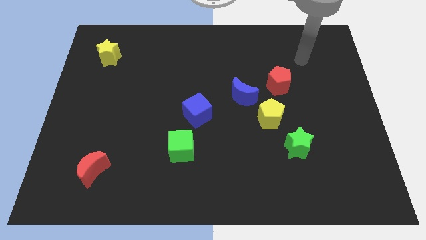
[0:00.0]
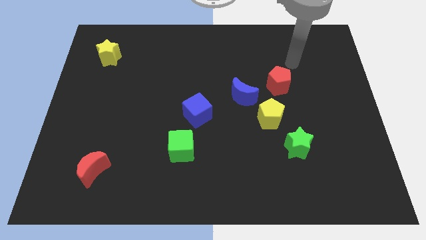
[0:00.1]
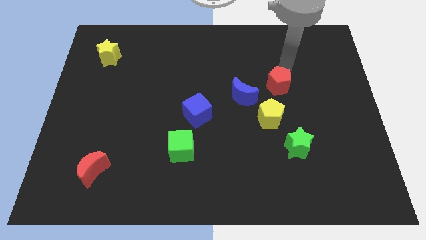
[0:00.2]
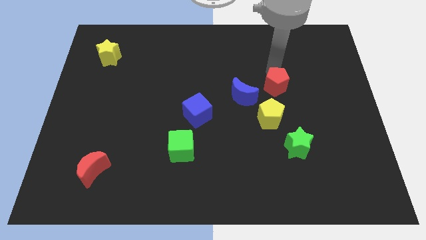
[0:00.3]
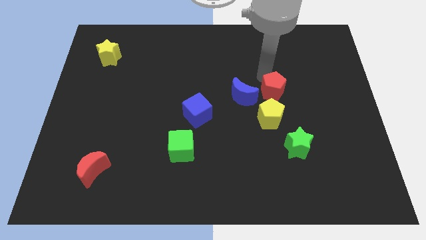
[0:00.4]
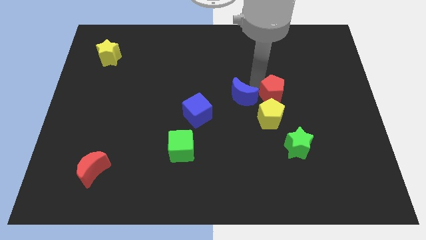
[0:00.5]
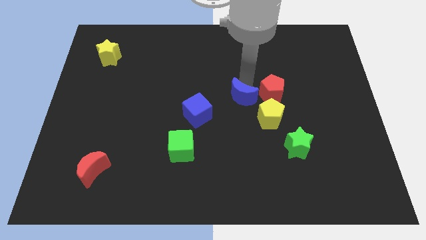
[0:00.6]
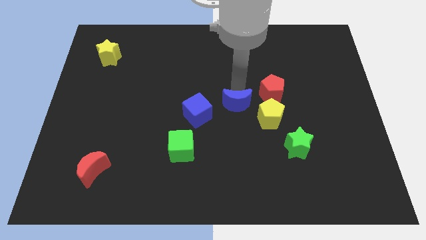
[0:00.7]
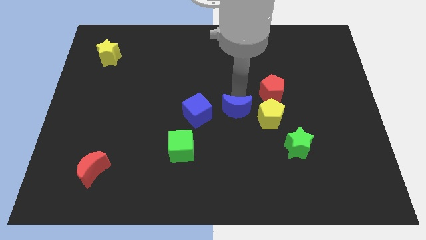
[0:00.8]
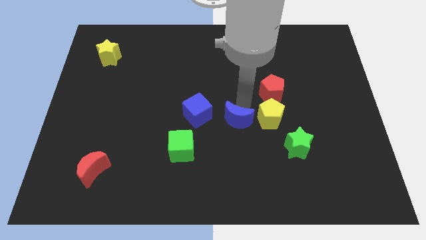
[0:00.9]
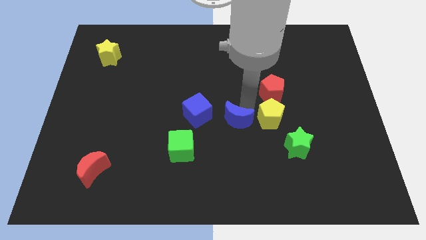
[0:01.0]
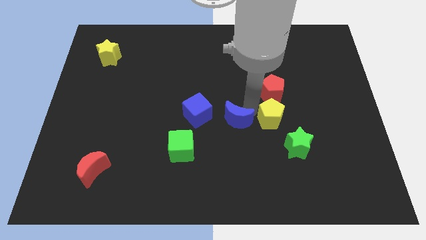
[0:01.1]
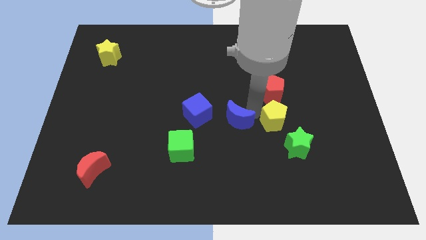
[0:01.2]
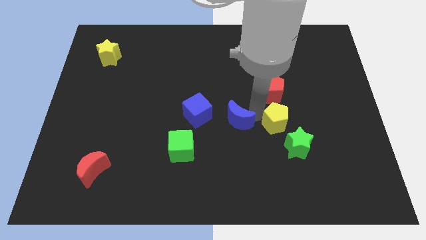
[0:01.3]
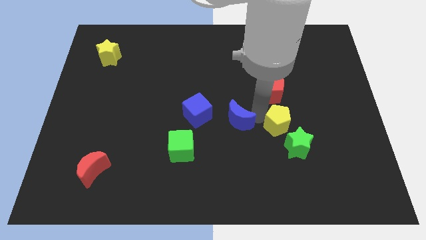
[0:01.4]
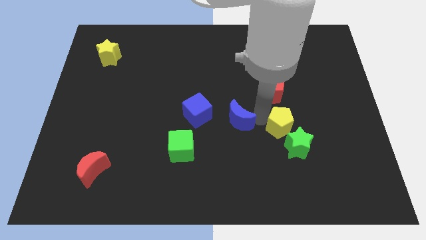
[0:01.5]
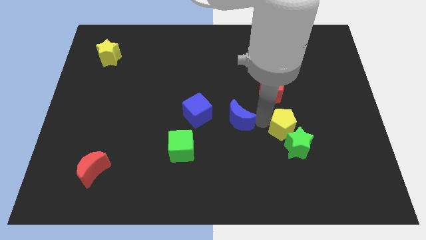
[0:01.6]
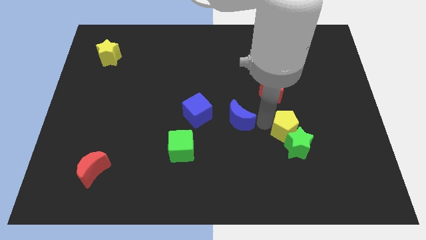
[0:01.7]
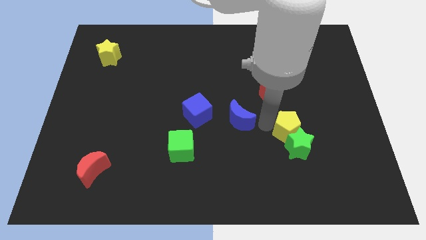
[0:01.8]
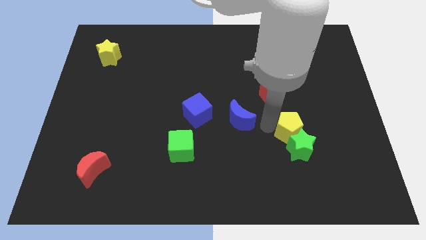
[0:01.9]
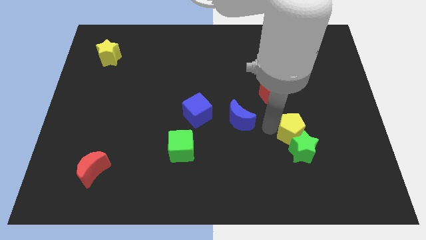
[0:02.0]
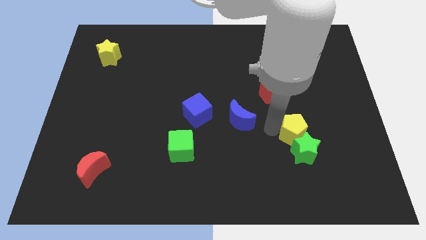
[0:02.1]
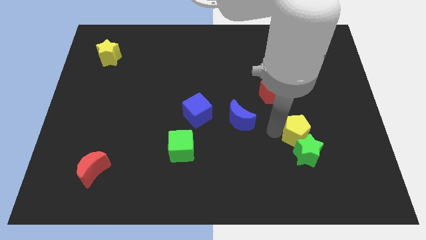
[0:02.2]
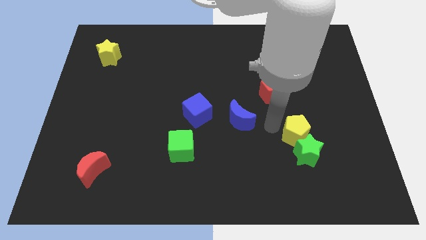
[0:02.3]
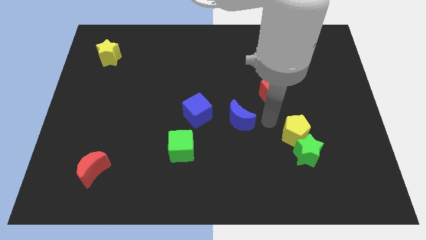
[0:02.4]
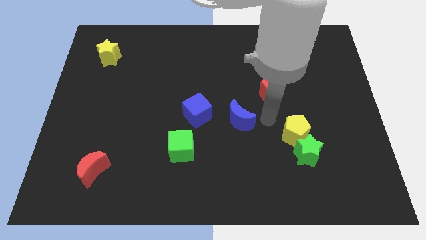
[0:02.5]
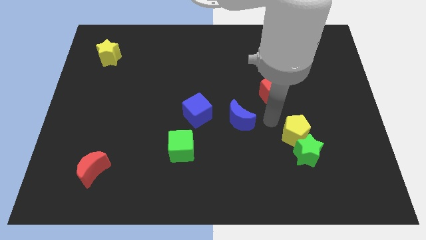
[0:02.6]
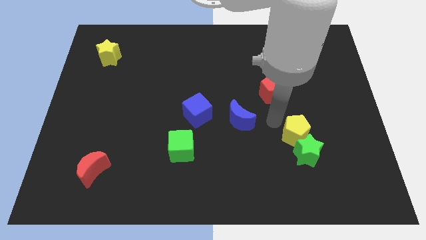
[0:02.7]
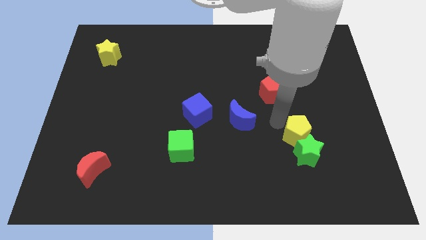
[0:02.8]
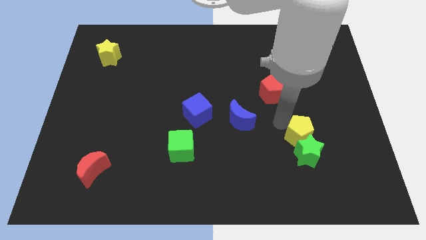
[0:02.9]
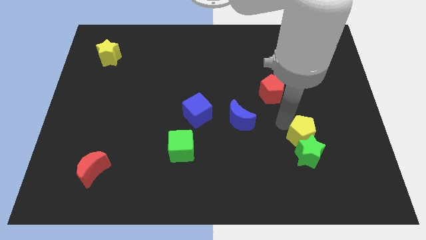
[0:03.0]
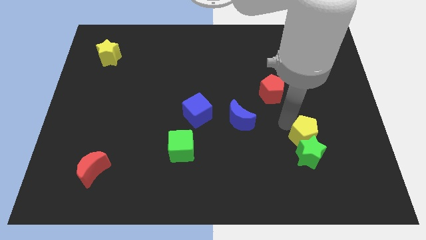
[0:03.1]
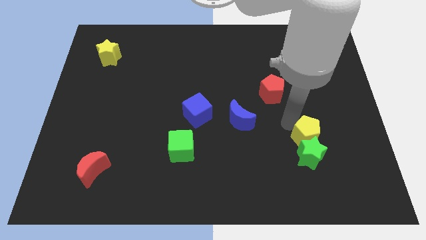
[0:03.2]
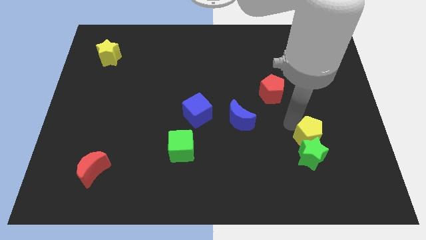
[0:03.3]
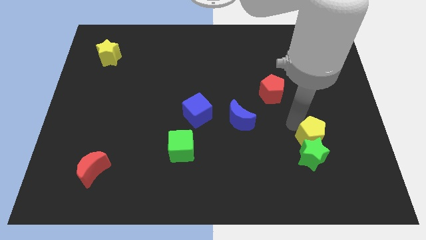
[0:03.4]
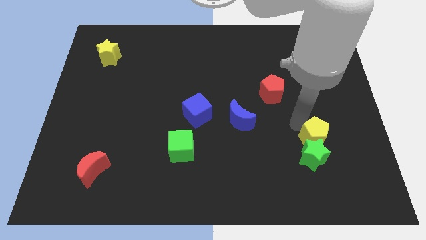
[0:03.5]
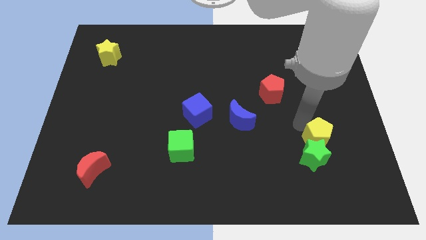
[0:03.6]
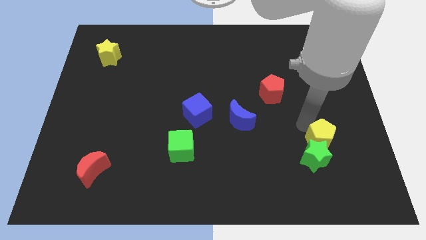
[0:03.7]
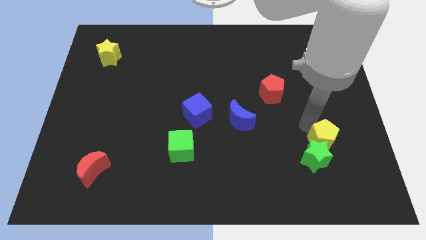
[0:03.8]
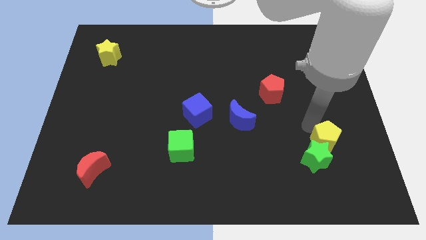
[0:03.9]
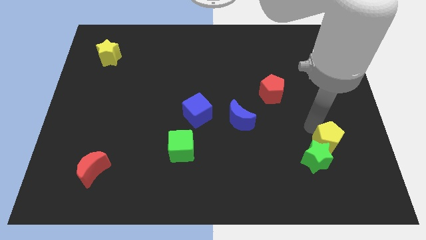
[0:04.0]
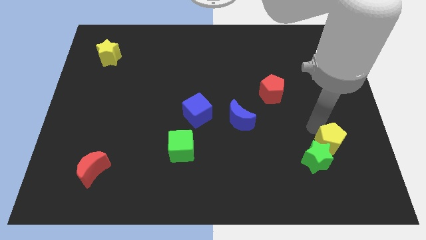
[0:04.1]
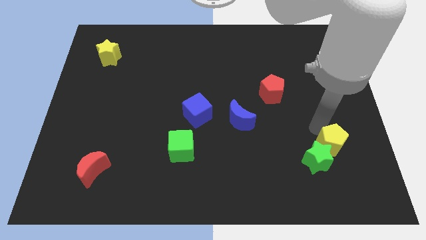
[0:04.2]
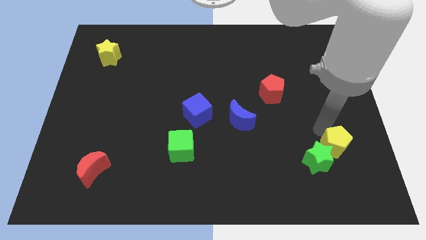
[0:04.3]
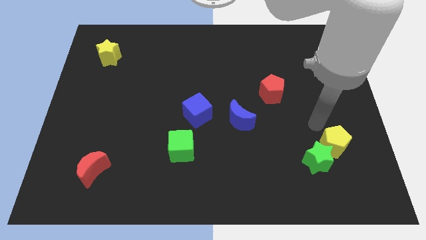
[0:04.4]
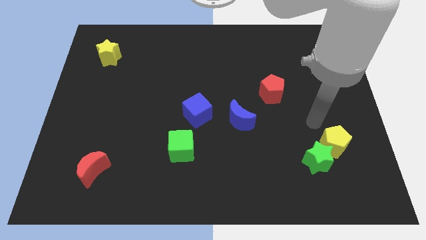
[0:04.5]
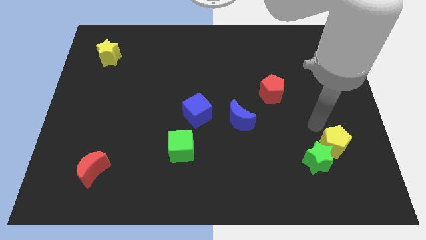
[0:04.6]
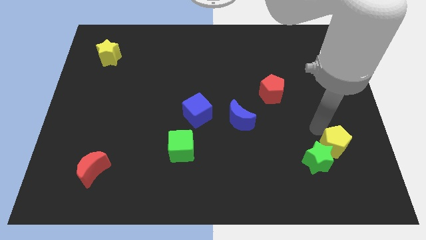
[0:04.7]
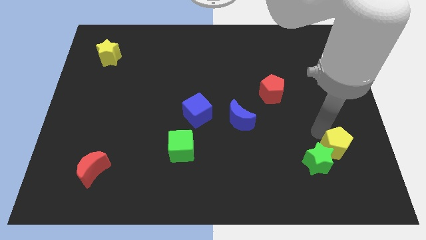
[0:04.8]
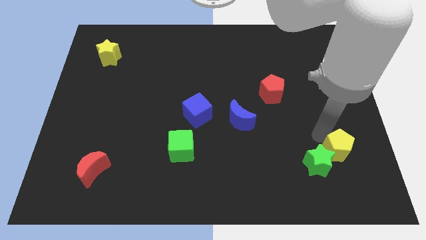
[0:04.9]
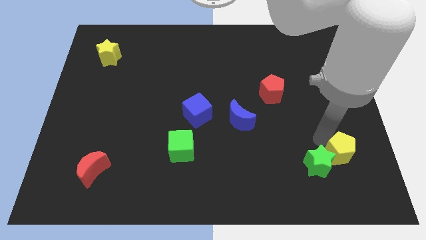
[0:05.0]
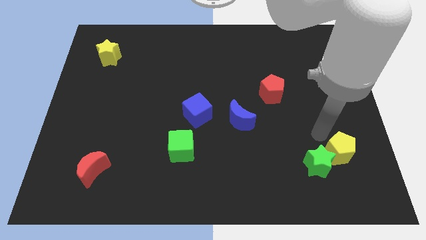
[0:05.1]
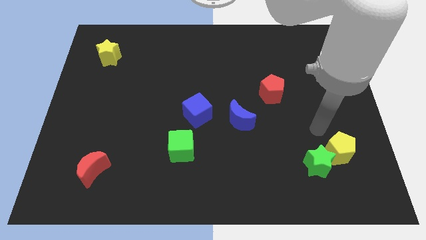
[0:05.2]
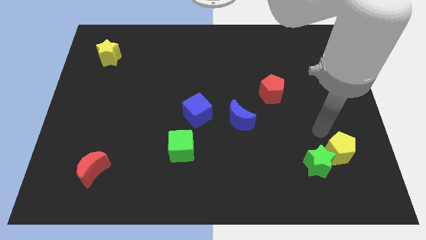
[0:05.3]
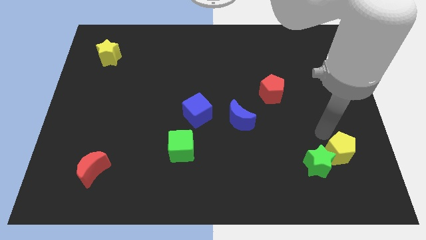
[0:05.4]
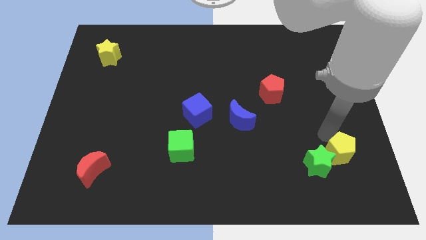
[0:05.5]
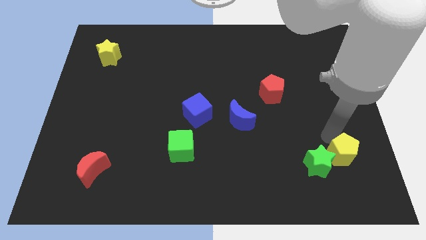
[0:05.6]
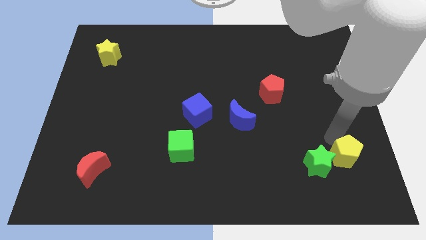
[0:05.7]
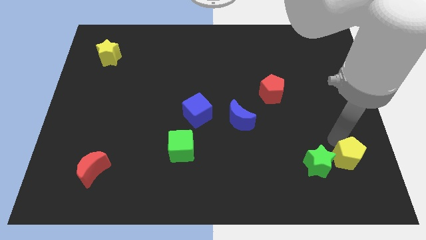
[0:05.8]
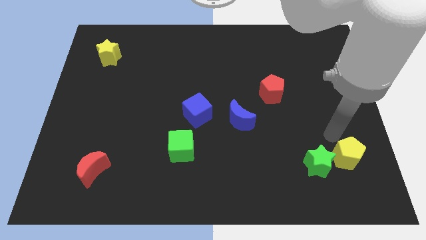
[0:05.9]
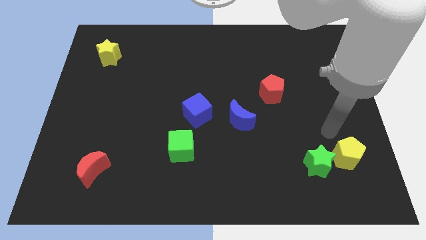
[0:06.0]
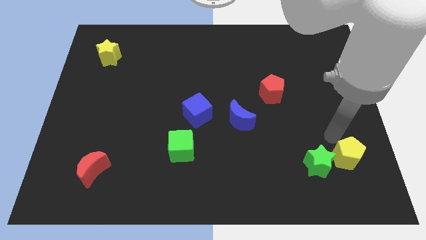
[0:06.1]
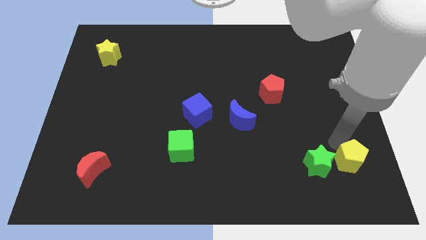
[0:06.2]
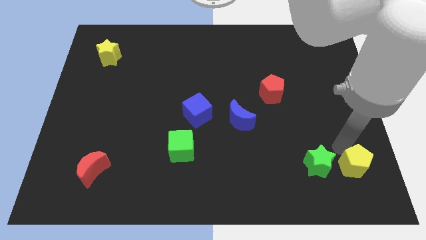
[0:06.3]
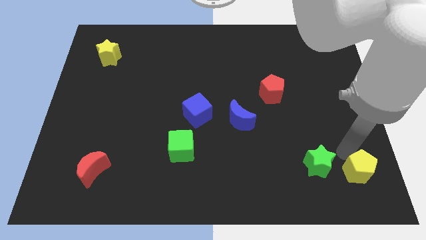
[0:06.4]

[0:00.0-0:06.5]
move the yellow pentagon to the lower right corner
